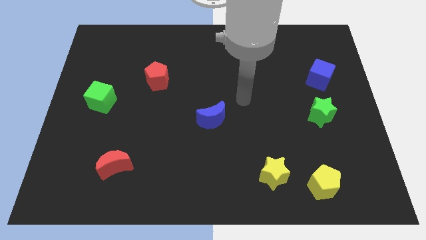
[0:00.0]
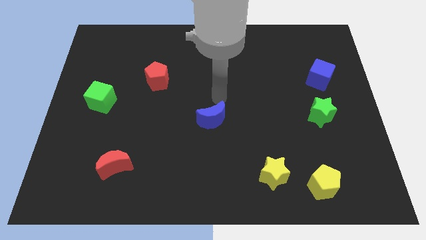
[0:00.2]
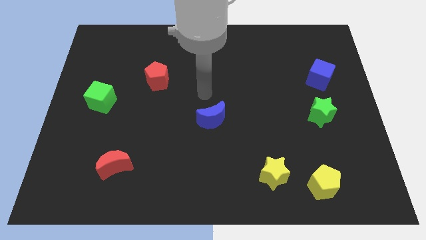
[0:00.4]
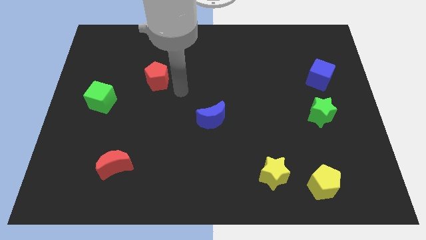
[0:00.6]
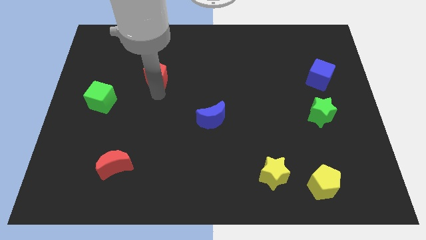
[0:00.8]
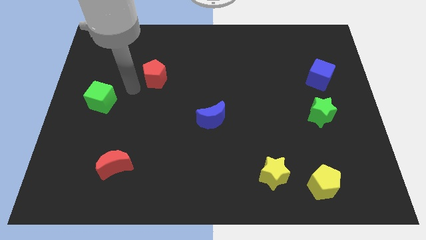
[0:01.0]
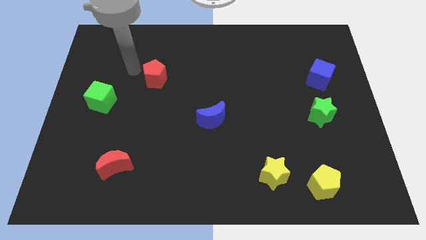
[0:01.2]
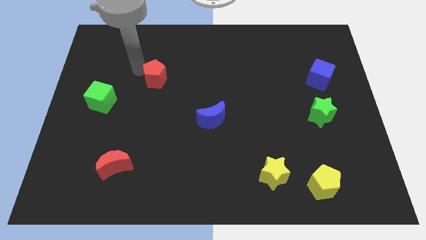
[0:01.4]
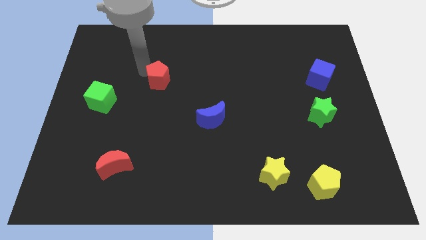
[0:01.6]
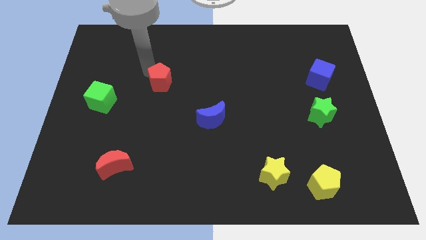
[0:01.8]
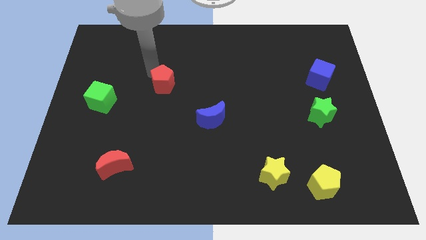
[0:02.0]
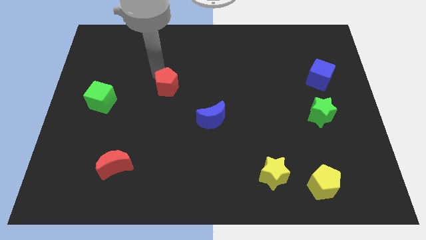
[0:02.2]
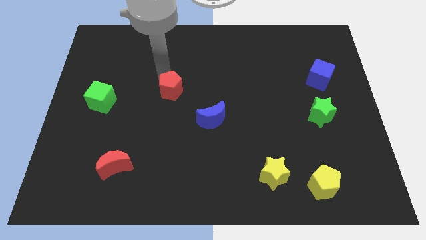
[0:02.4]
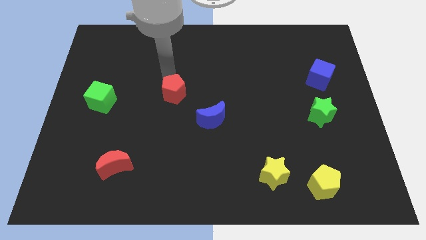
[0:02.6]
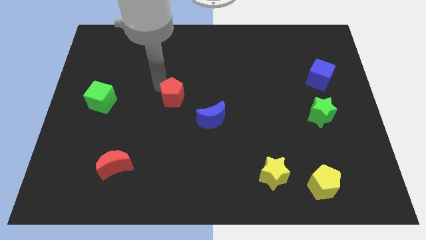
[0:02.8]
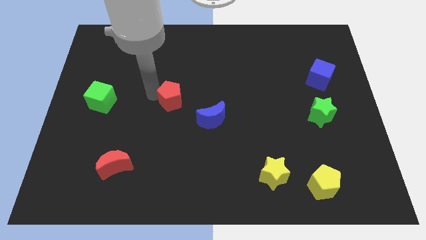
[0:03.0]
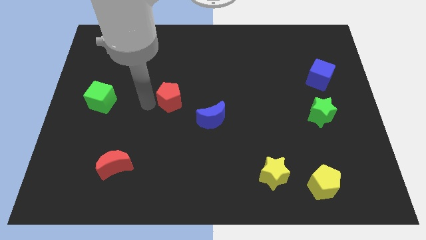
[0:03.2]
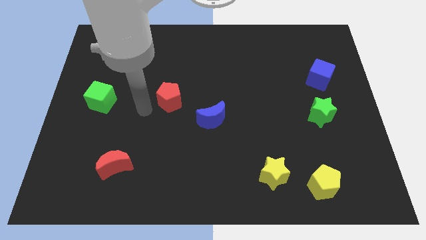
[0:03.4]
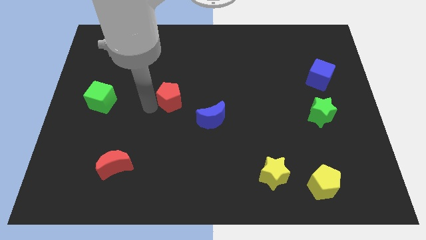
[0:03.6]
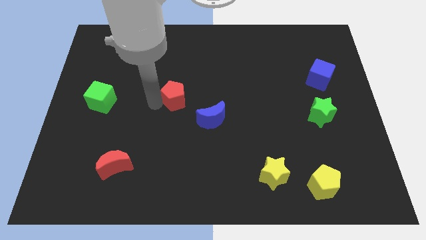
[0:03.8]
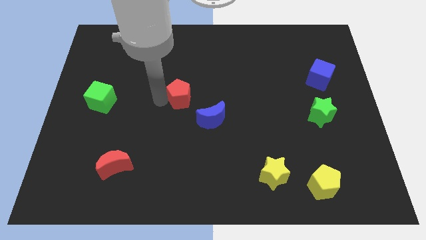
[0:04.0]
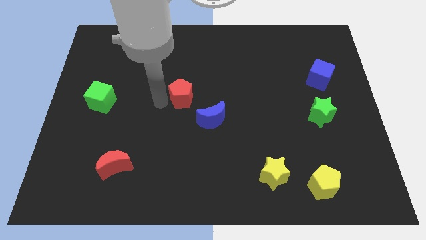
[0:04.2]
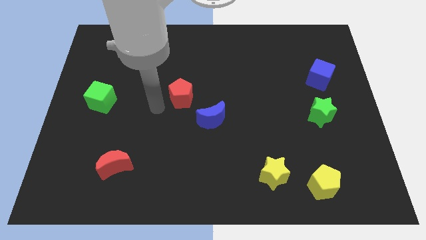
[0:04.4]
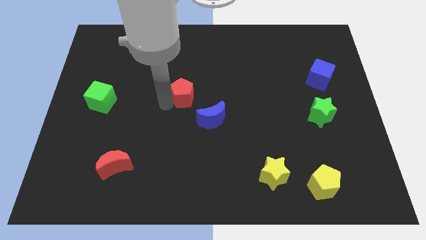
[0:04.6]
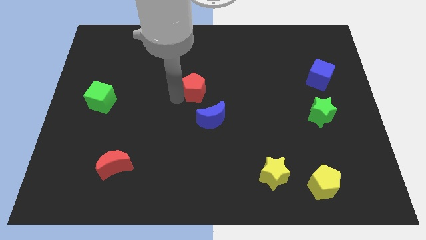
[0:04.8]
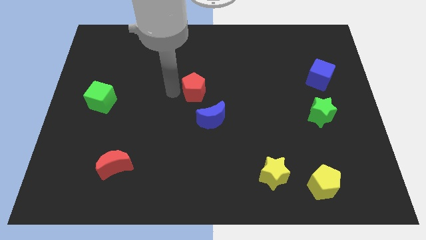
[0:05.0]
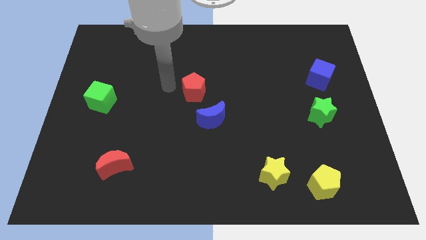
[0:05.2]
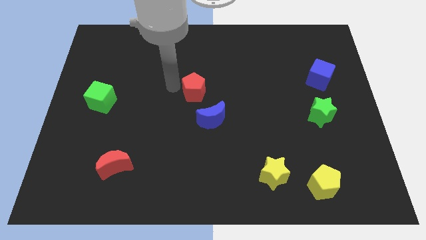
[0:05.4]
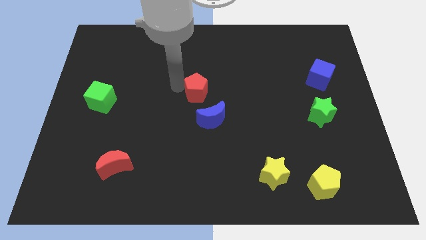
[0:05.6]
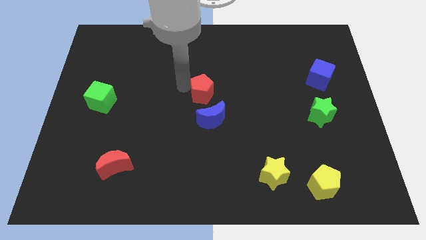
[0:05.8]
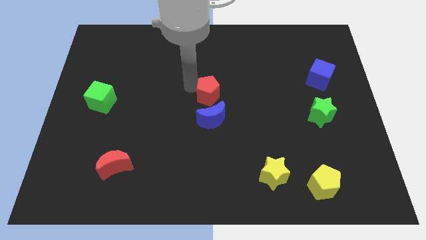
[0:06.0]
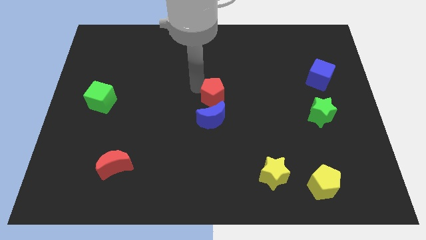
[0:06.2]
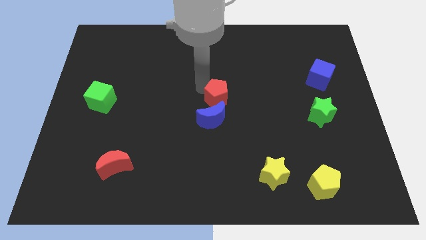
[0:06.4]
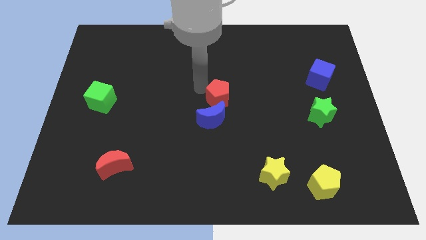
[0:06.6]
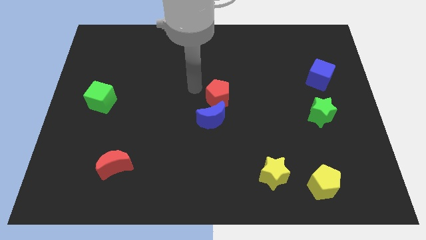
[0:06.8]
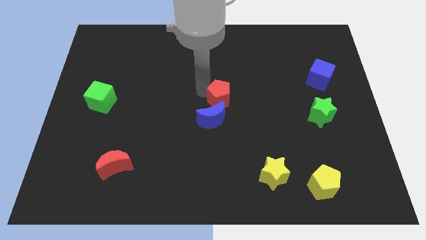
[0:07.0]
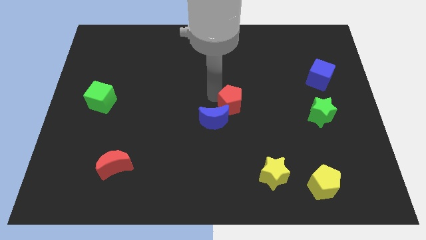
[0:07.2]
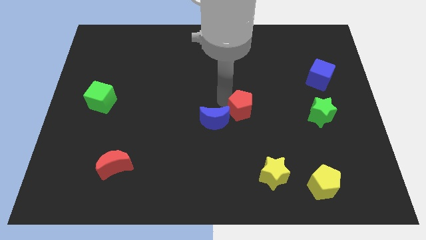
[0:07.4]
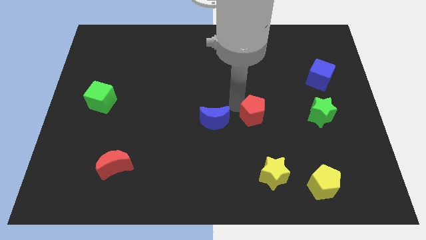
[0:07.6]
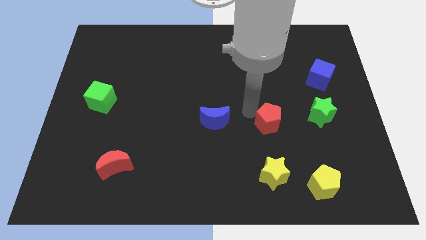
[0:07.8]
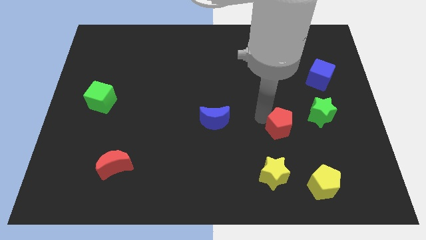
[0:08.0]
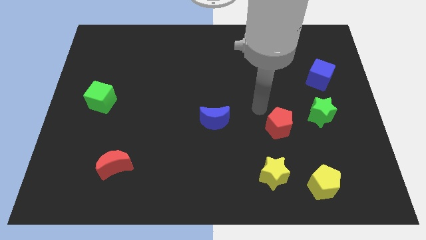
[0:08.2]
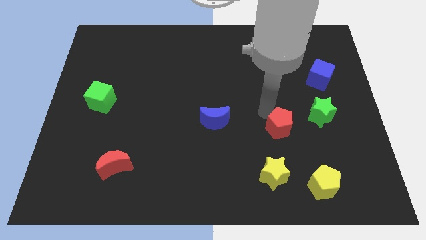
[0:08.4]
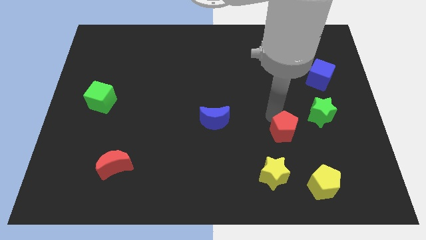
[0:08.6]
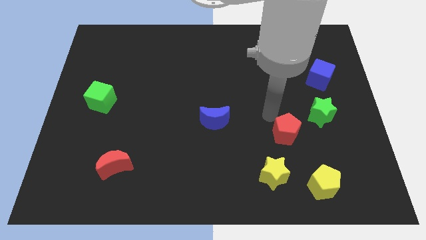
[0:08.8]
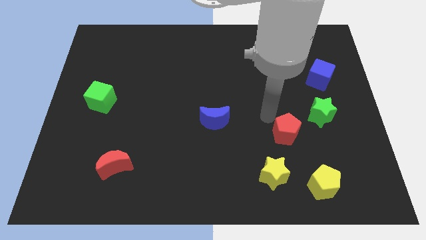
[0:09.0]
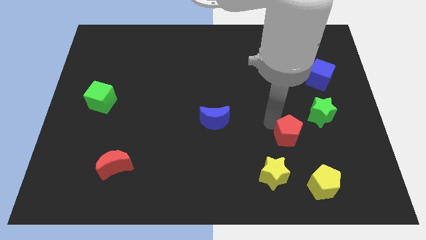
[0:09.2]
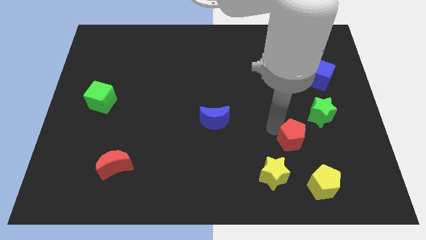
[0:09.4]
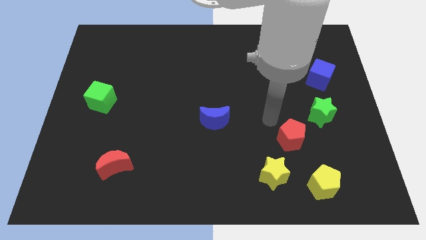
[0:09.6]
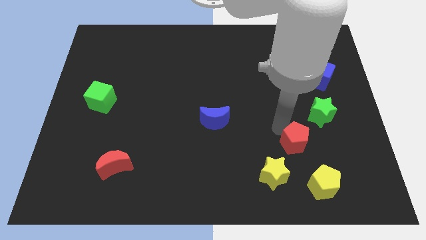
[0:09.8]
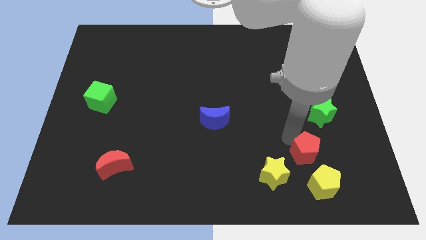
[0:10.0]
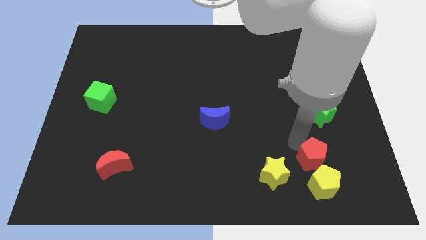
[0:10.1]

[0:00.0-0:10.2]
push the red pentagon to the right side of the yellow star

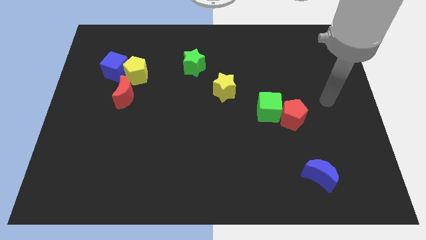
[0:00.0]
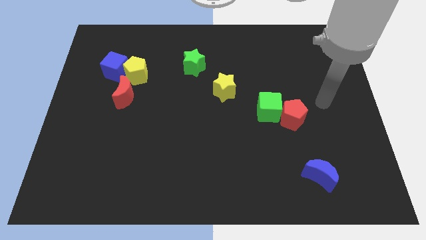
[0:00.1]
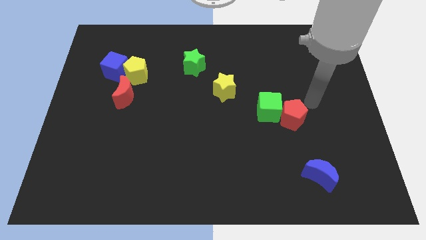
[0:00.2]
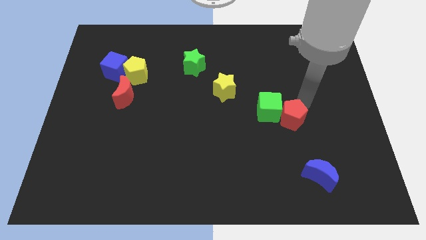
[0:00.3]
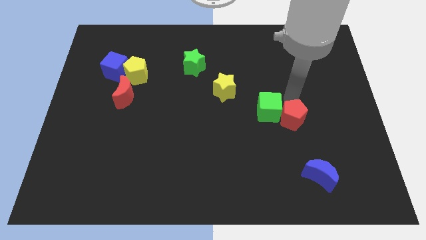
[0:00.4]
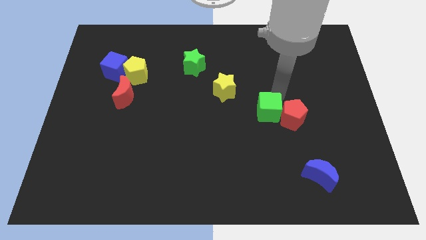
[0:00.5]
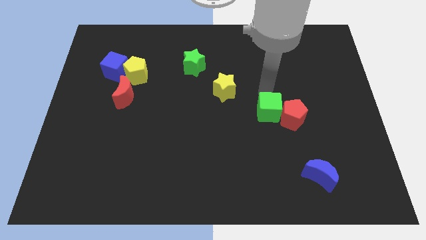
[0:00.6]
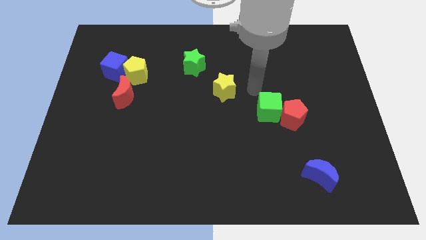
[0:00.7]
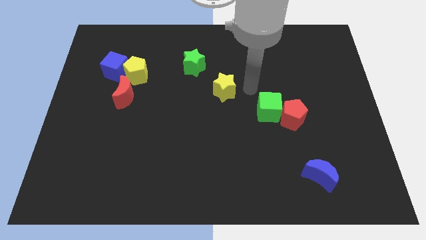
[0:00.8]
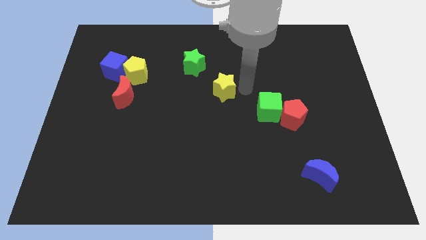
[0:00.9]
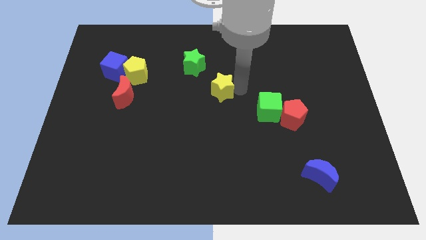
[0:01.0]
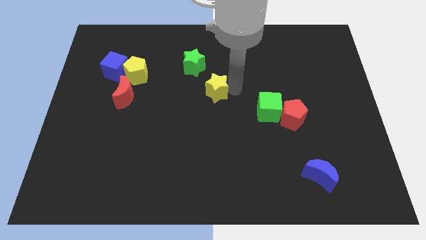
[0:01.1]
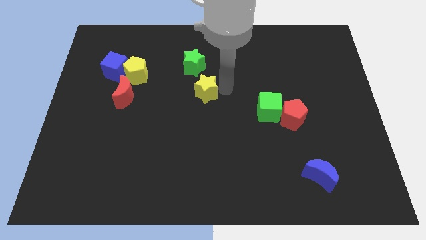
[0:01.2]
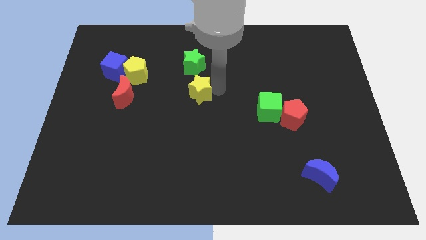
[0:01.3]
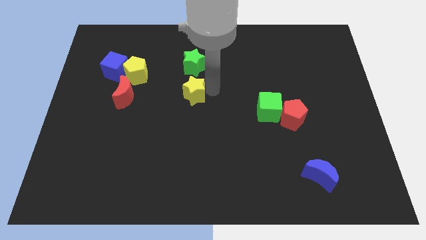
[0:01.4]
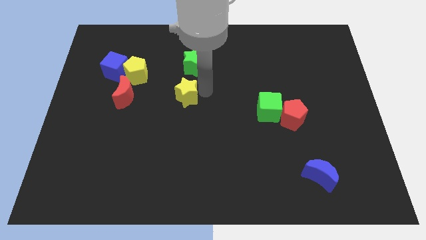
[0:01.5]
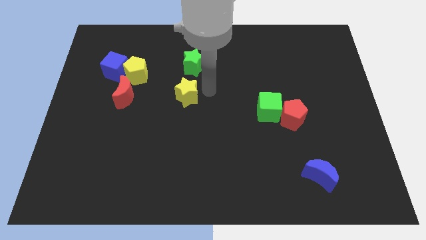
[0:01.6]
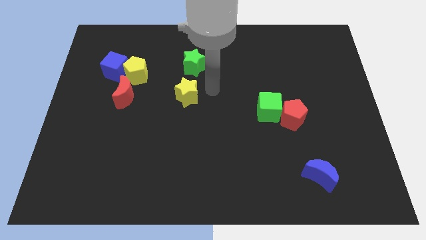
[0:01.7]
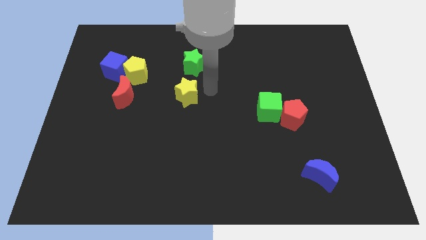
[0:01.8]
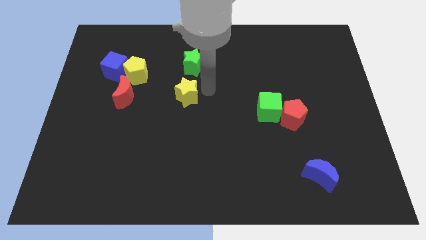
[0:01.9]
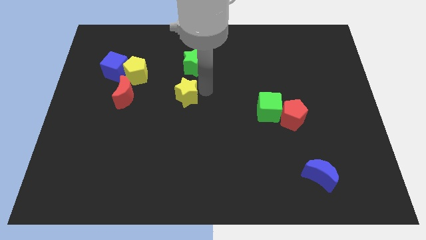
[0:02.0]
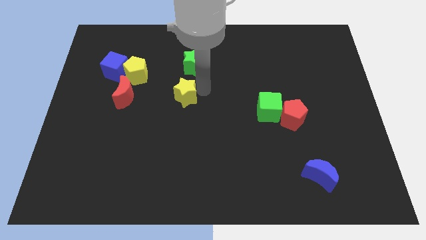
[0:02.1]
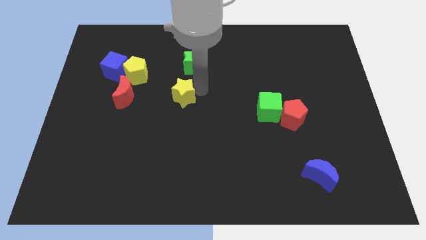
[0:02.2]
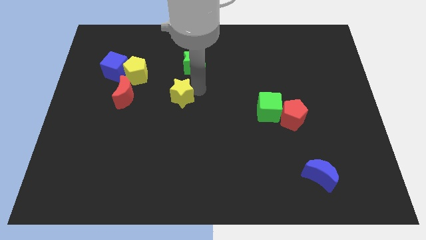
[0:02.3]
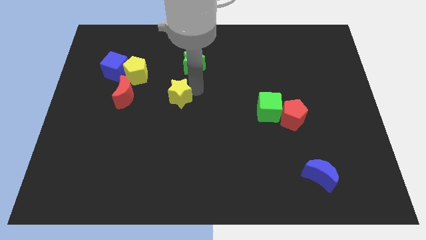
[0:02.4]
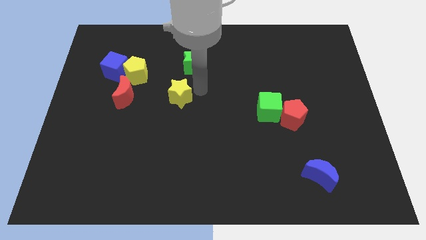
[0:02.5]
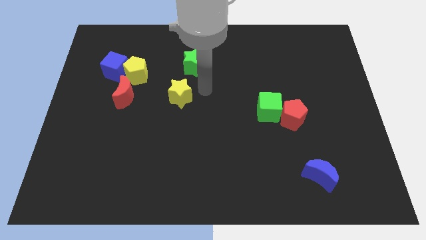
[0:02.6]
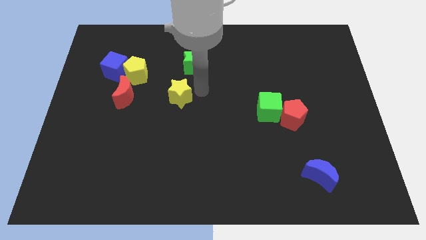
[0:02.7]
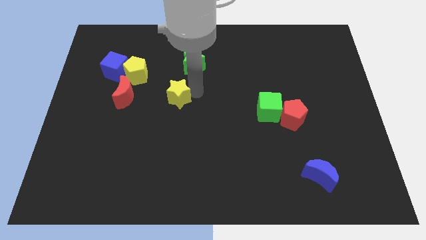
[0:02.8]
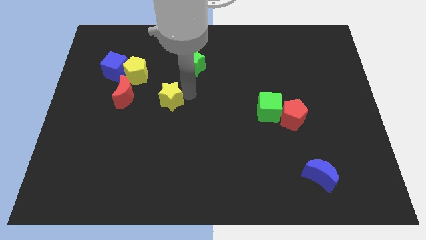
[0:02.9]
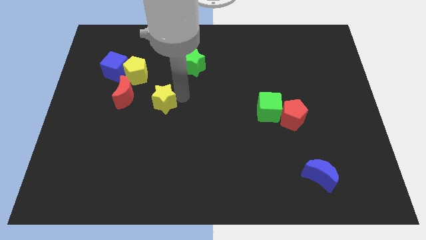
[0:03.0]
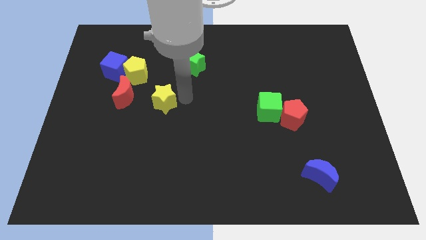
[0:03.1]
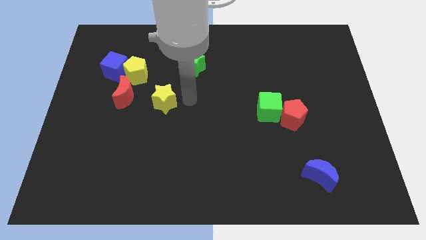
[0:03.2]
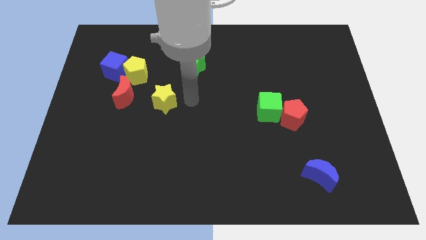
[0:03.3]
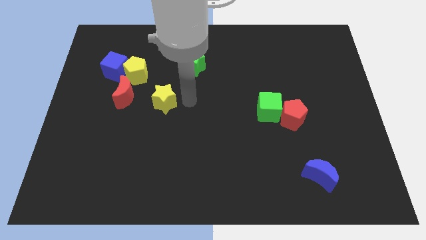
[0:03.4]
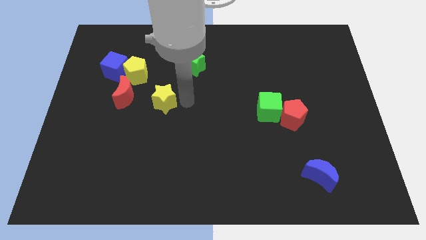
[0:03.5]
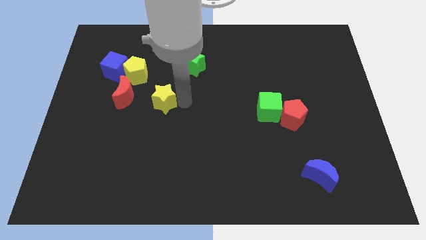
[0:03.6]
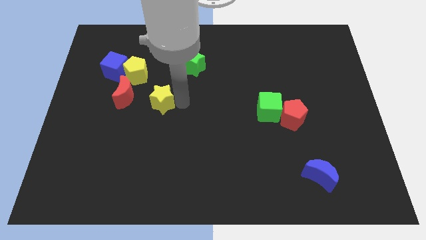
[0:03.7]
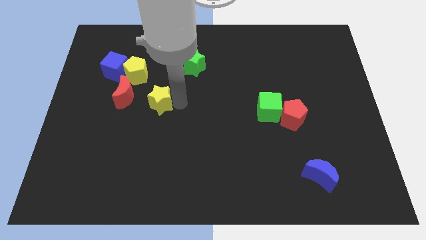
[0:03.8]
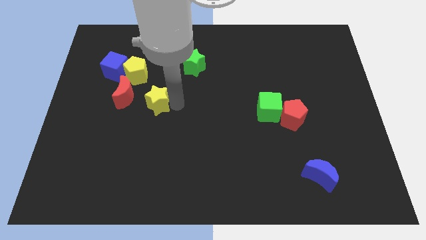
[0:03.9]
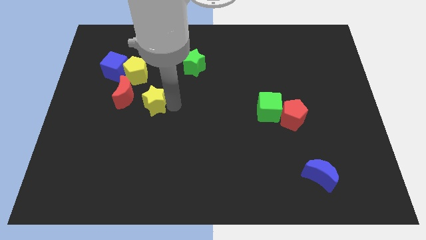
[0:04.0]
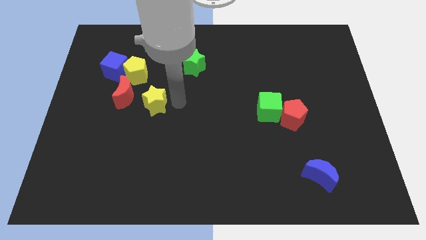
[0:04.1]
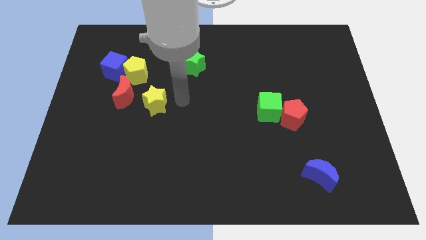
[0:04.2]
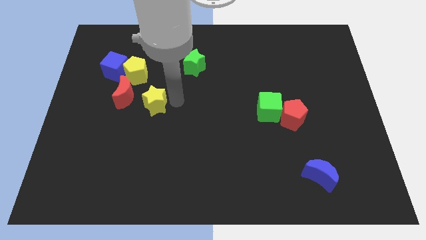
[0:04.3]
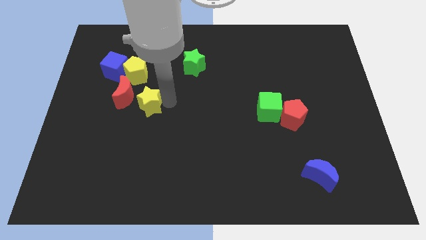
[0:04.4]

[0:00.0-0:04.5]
slide the yellow star below the yellow pentagon
